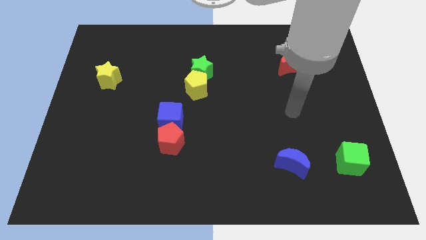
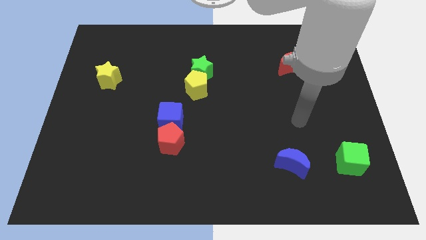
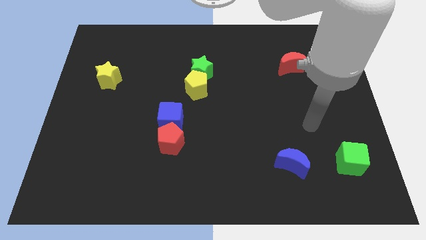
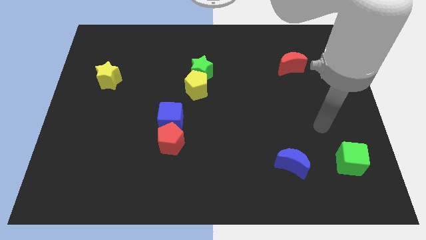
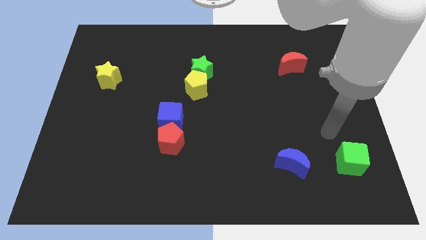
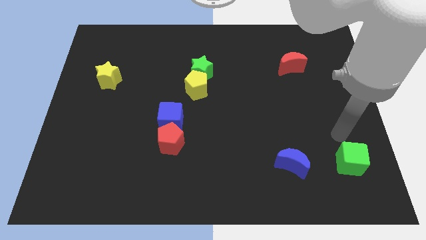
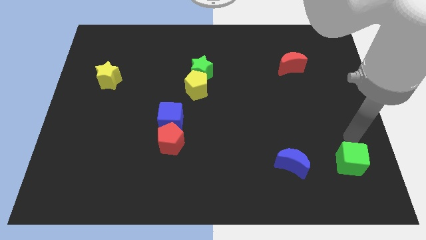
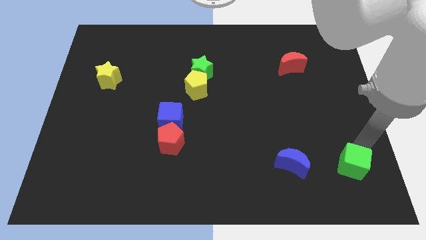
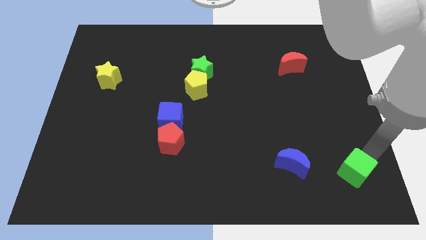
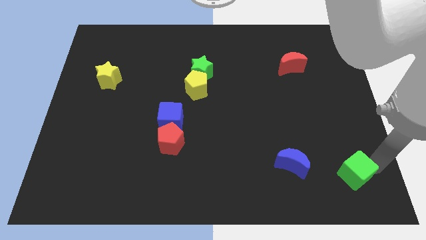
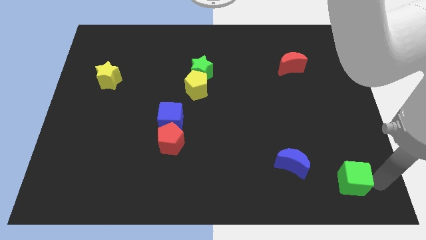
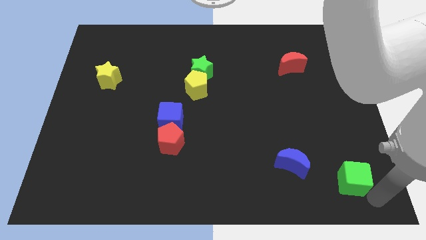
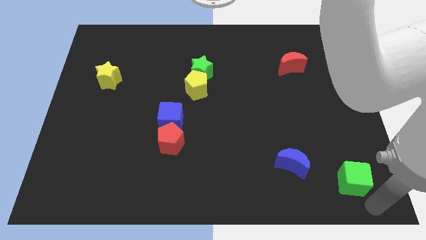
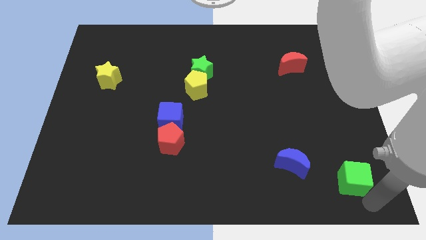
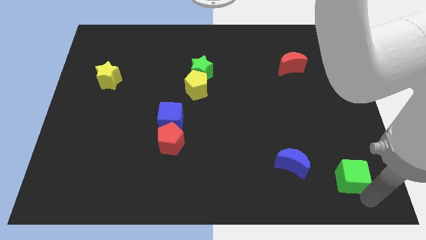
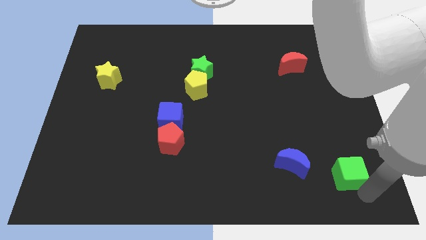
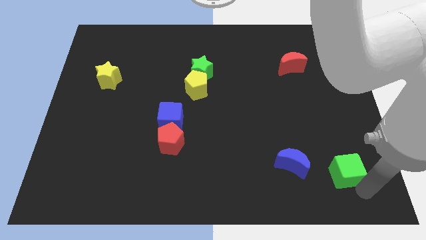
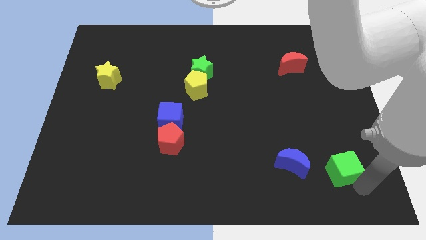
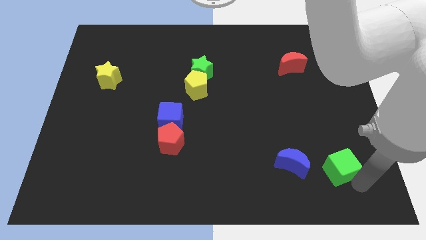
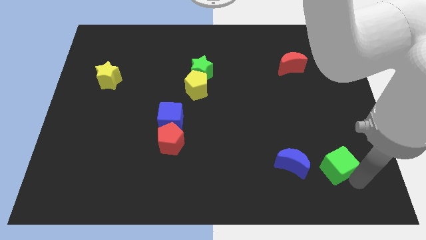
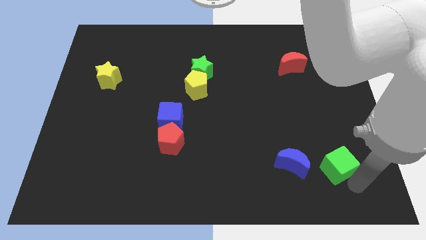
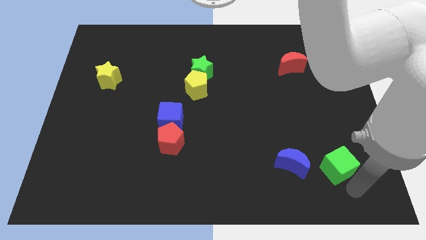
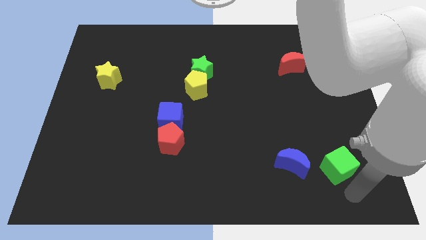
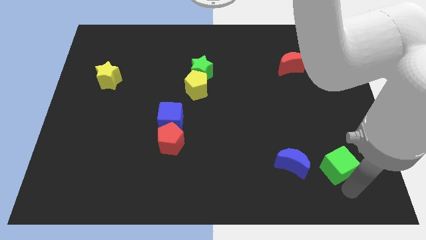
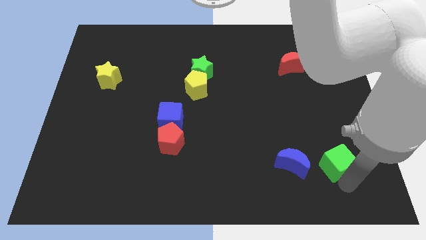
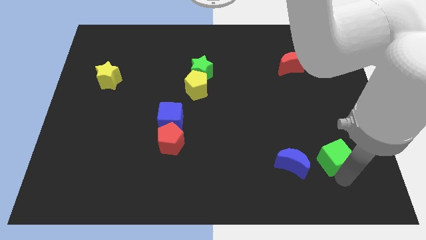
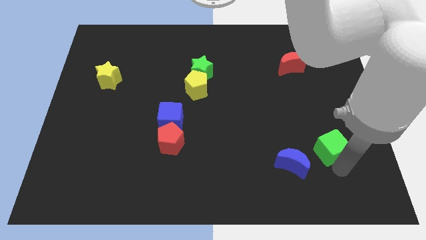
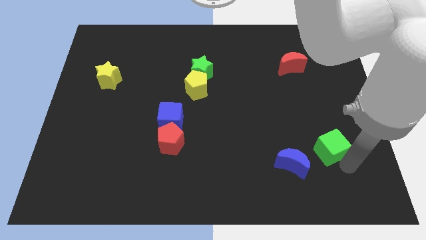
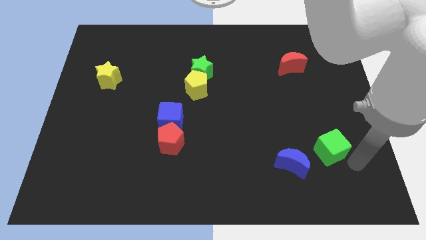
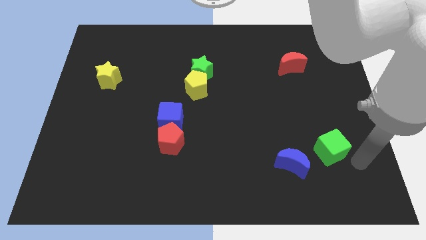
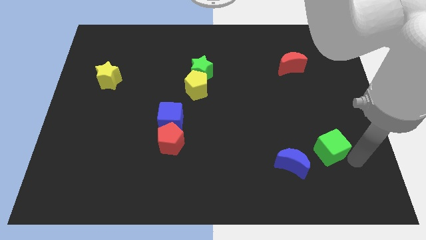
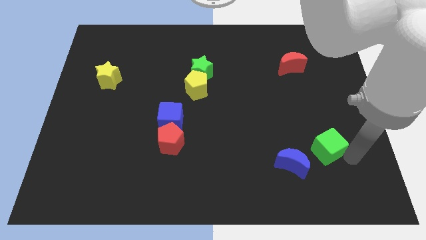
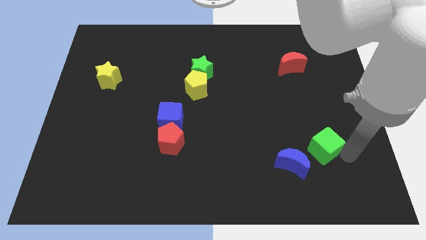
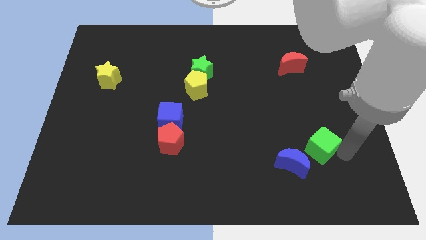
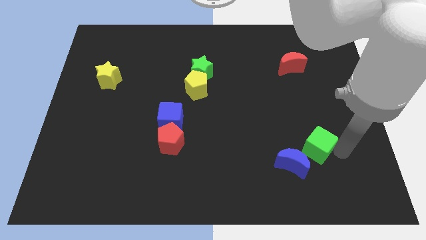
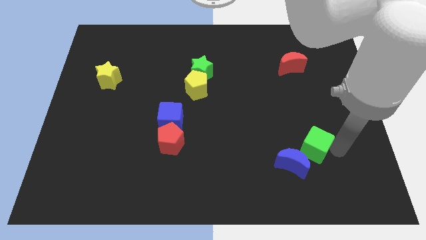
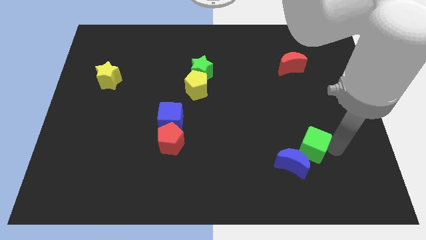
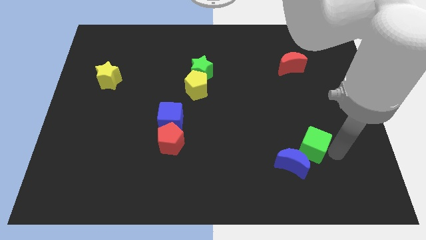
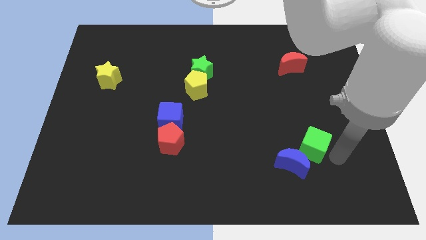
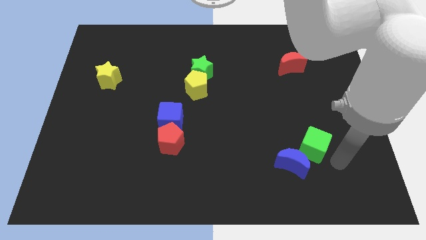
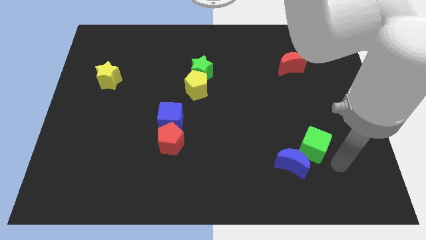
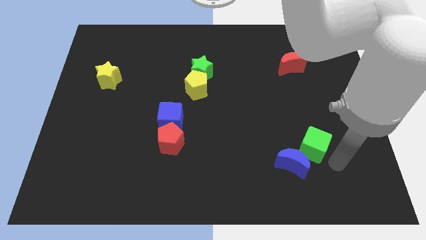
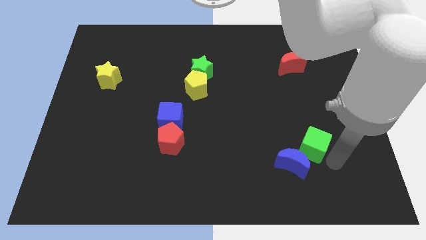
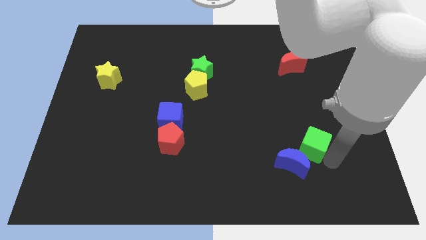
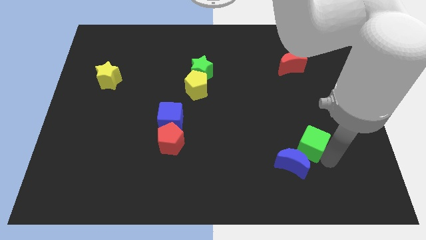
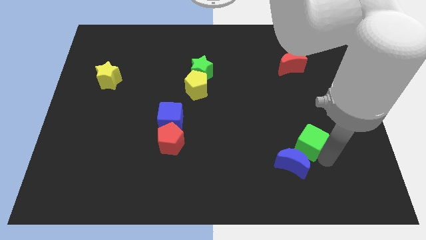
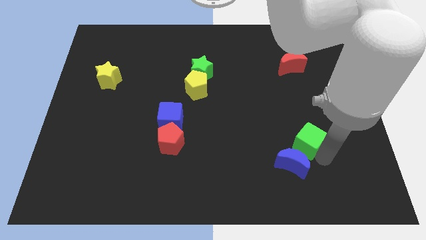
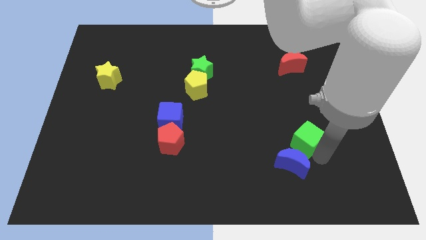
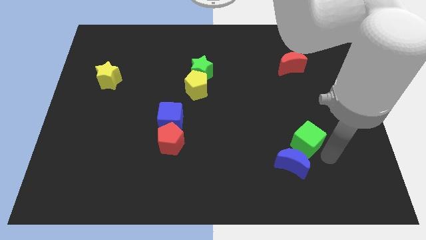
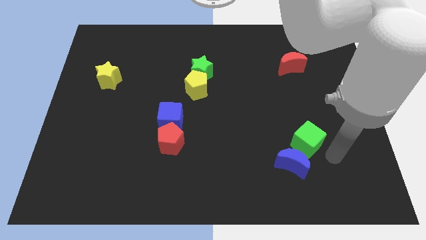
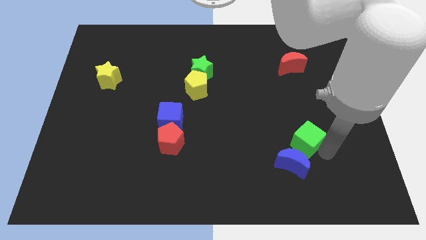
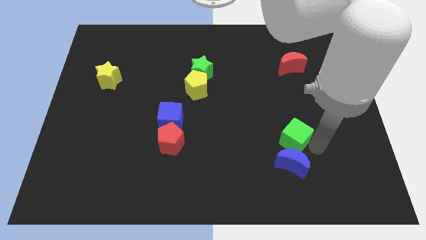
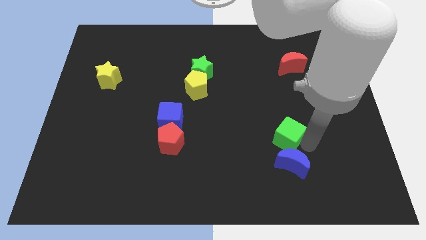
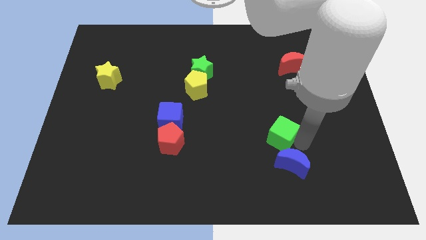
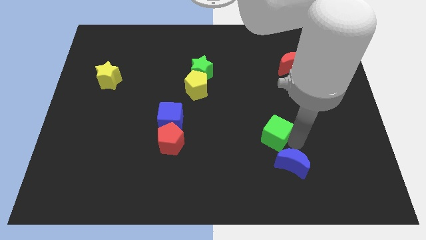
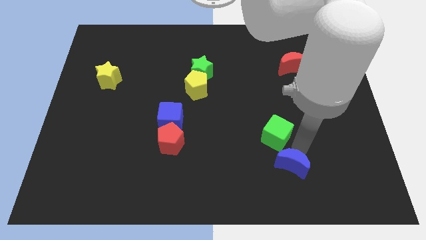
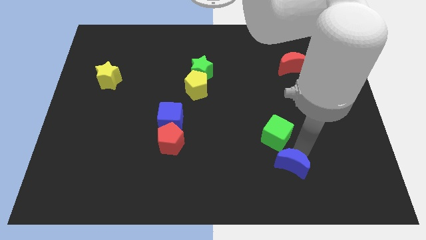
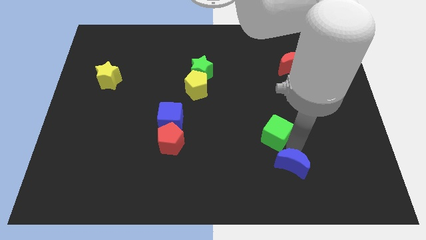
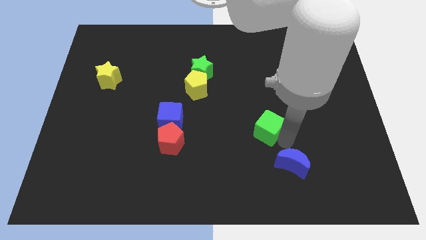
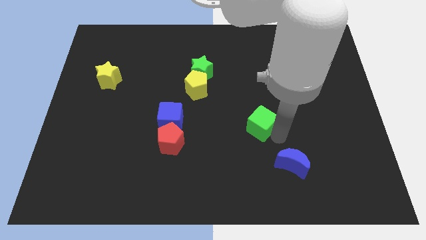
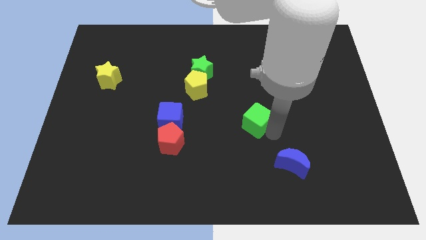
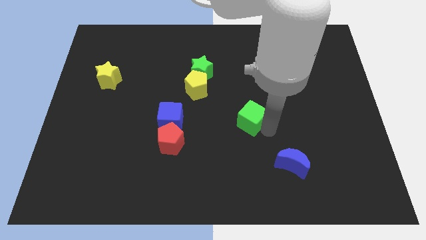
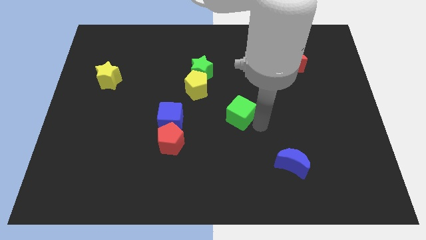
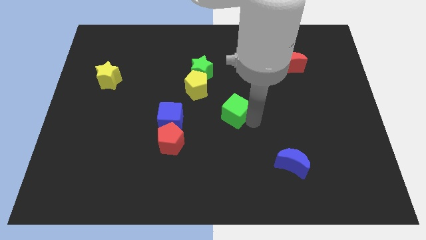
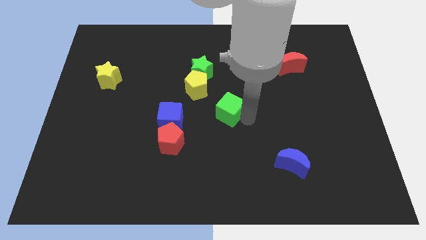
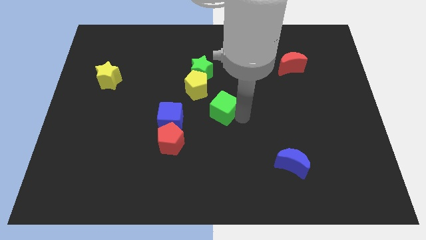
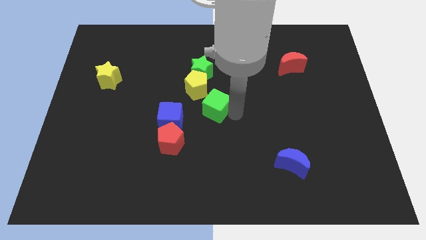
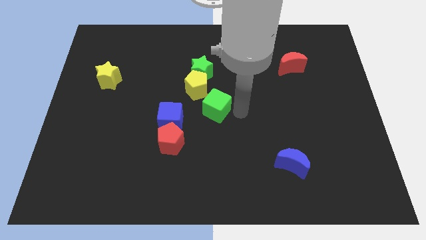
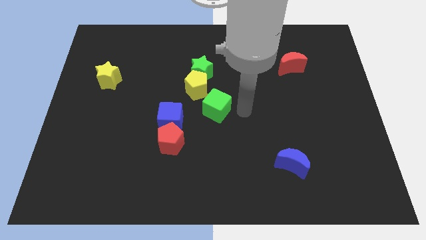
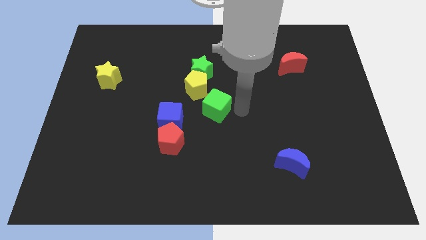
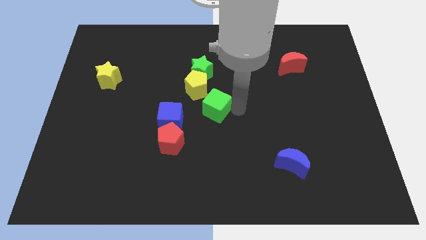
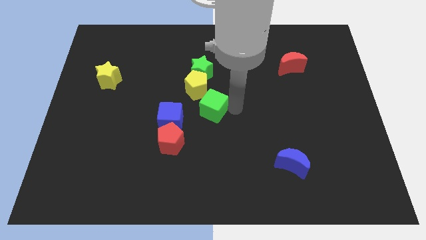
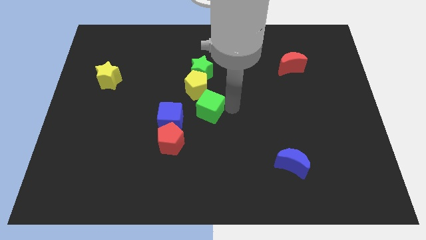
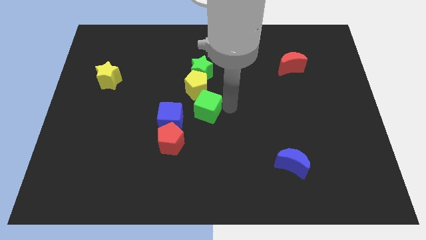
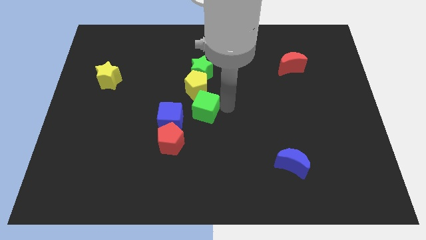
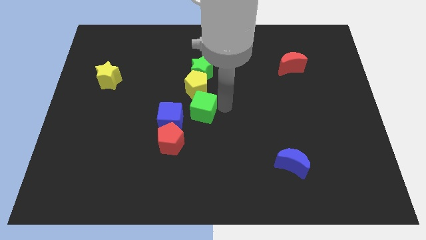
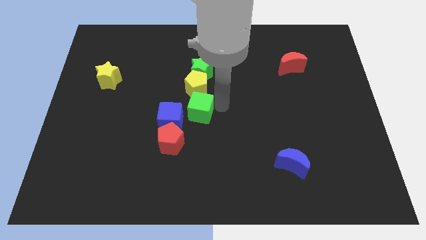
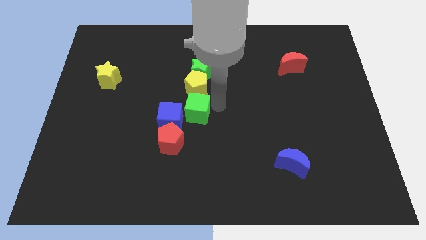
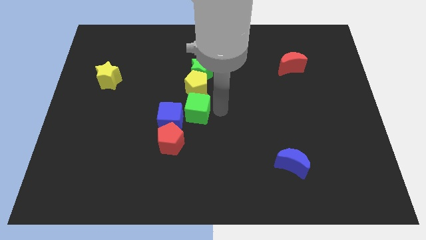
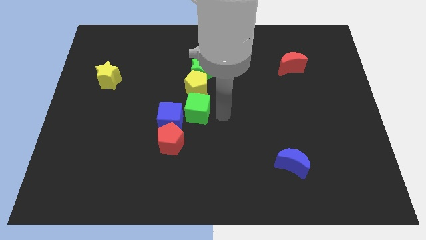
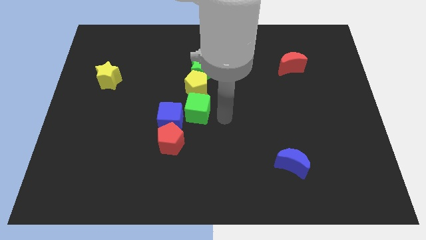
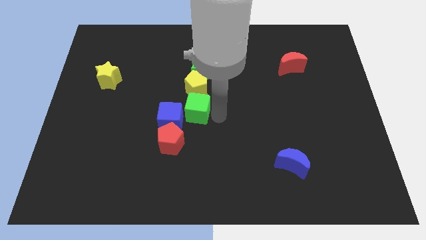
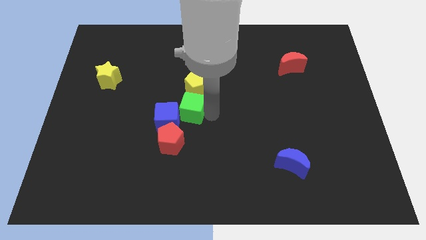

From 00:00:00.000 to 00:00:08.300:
slide the green cube above the red pentagon
